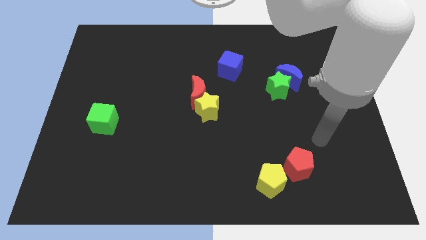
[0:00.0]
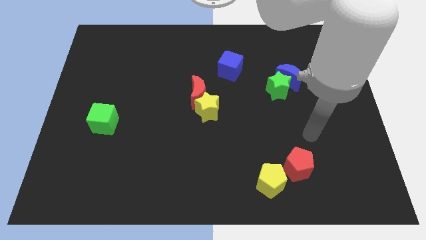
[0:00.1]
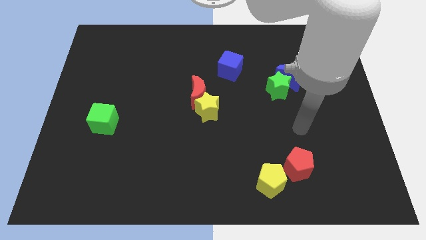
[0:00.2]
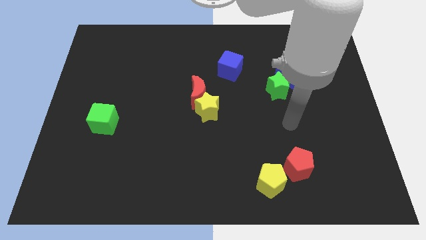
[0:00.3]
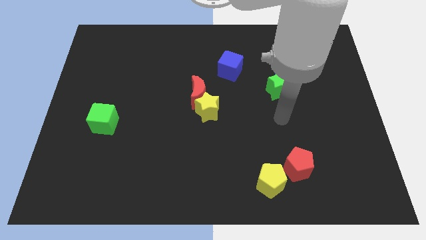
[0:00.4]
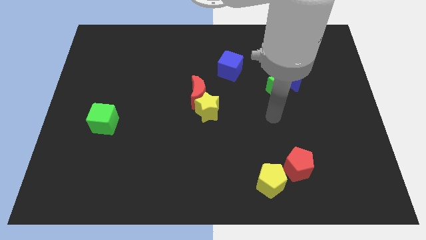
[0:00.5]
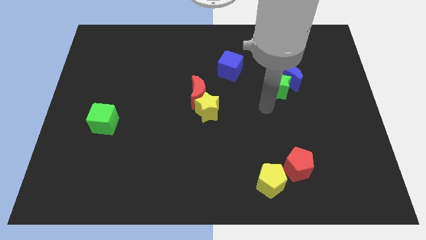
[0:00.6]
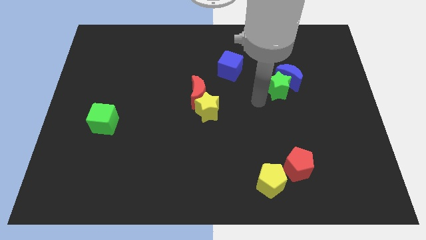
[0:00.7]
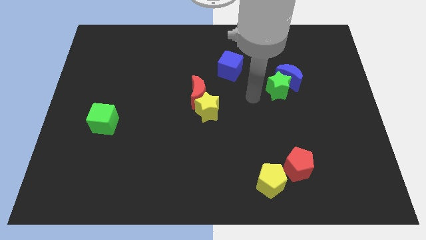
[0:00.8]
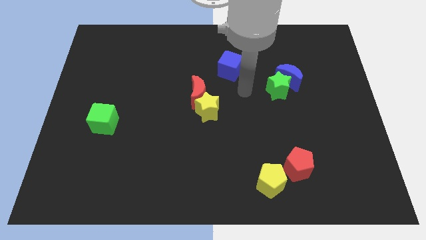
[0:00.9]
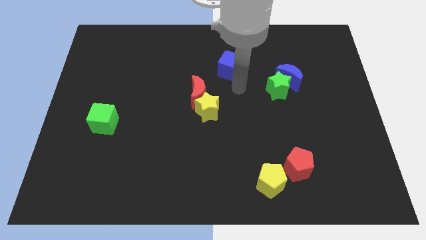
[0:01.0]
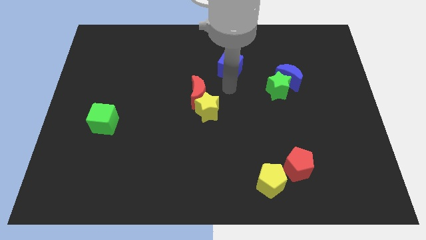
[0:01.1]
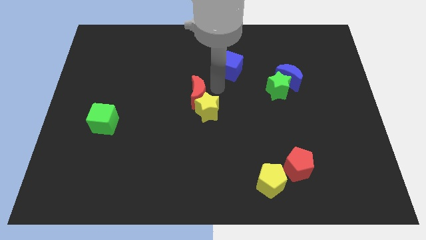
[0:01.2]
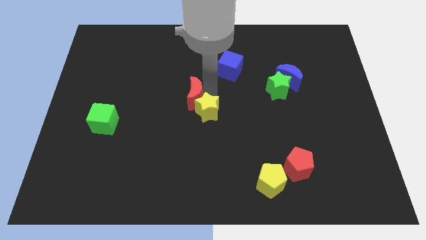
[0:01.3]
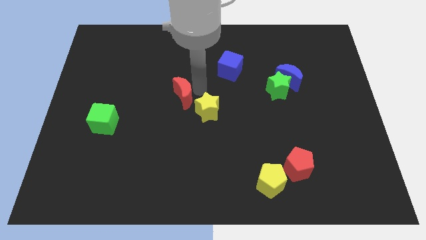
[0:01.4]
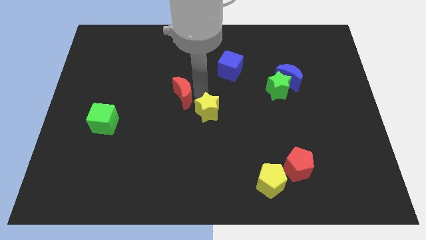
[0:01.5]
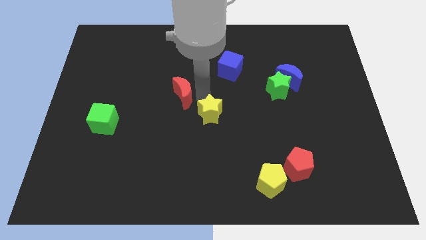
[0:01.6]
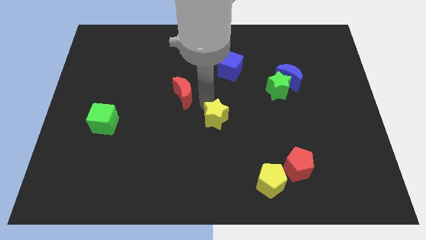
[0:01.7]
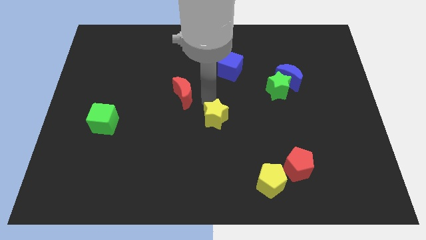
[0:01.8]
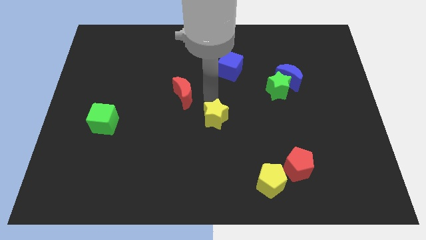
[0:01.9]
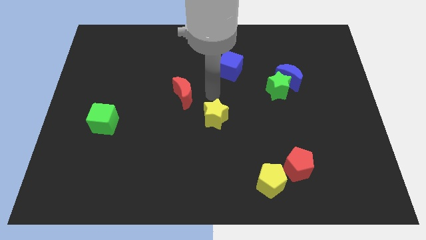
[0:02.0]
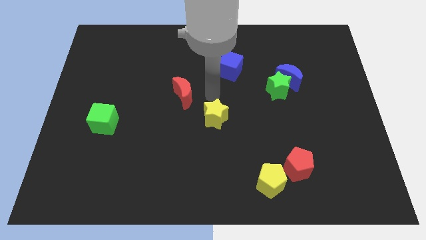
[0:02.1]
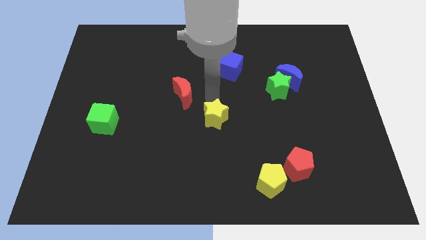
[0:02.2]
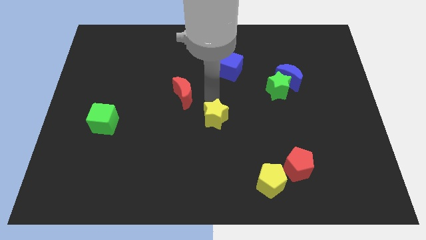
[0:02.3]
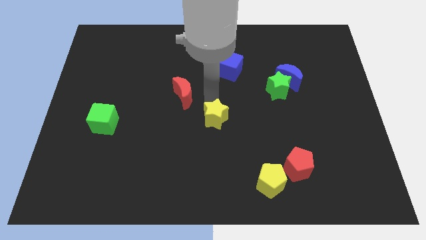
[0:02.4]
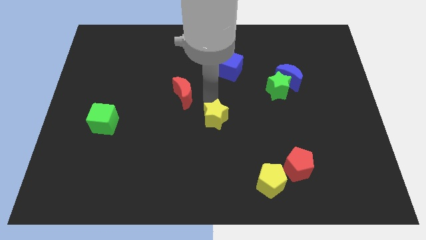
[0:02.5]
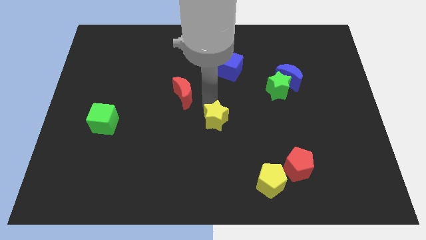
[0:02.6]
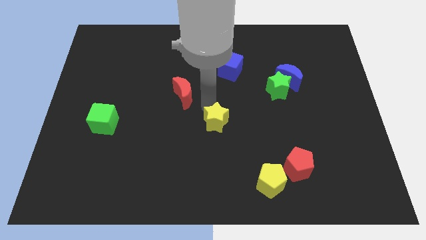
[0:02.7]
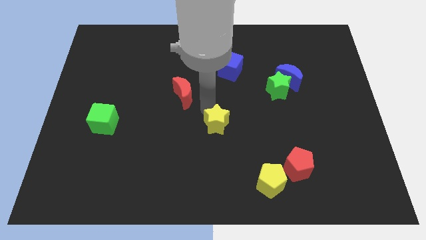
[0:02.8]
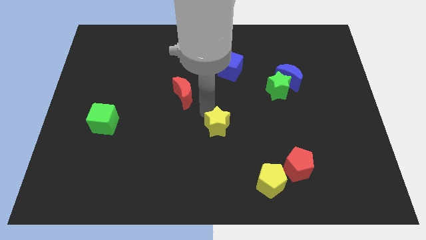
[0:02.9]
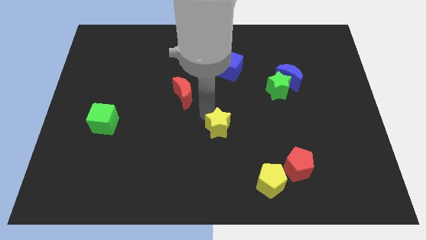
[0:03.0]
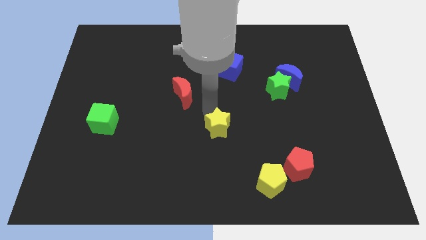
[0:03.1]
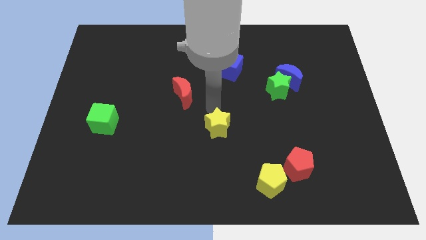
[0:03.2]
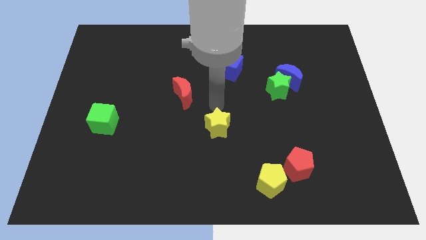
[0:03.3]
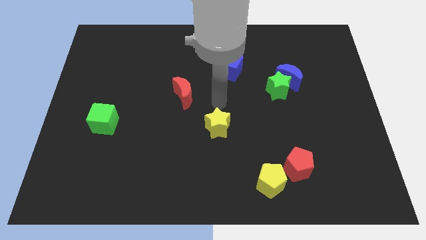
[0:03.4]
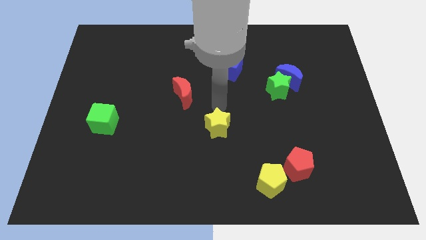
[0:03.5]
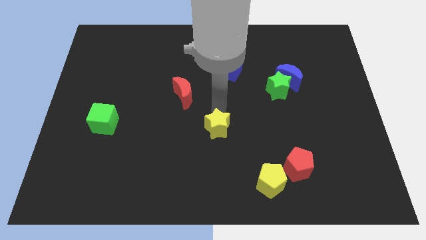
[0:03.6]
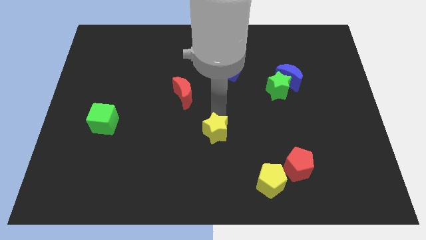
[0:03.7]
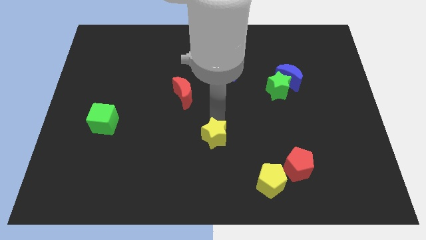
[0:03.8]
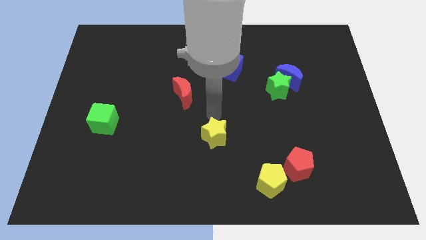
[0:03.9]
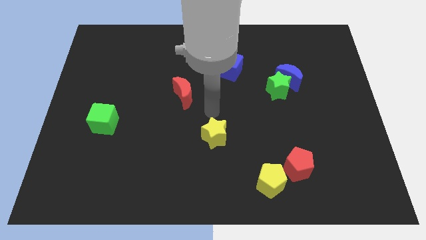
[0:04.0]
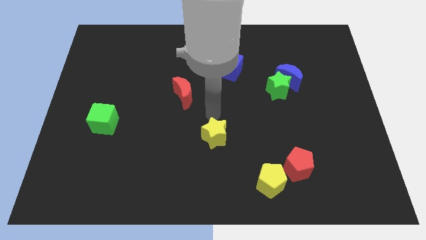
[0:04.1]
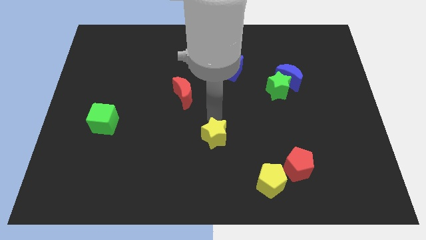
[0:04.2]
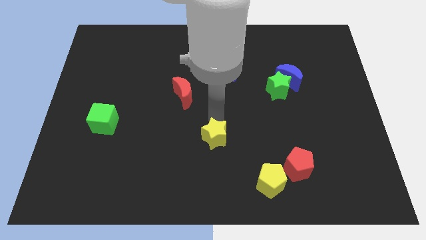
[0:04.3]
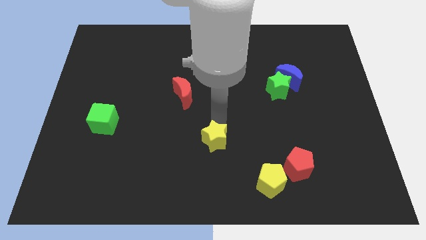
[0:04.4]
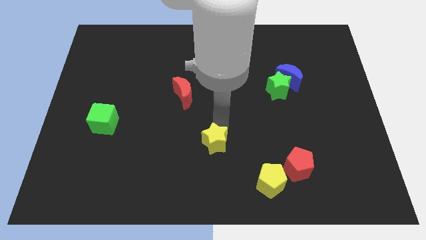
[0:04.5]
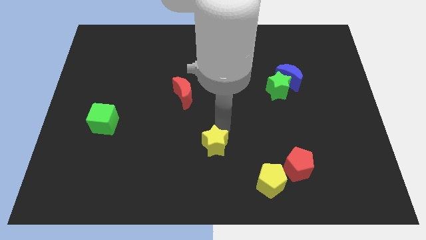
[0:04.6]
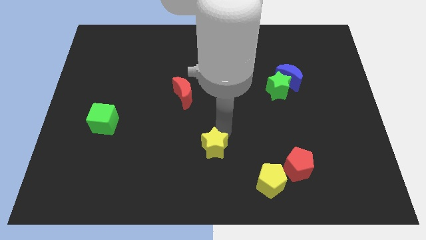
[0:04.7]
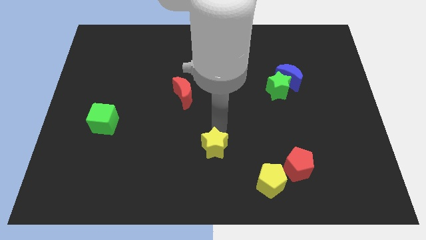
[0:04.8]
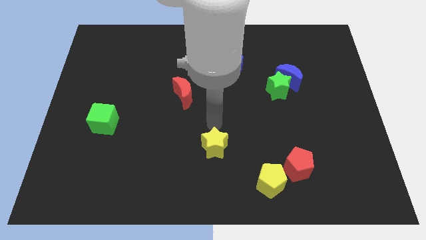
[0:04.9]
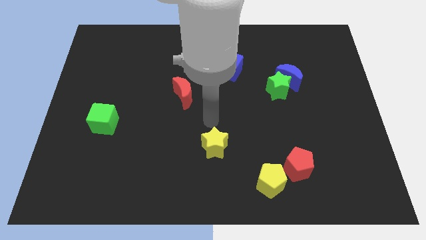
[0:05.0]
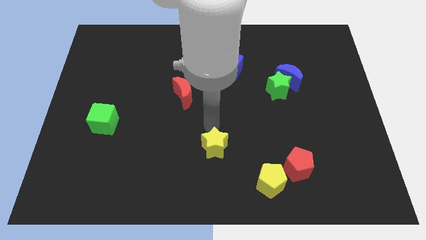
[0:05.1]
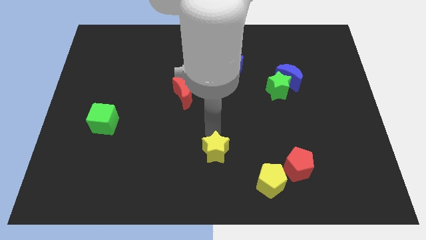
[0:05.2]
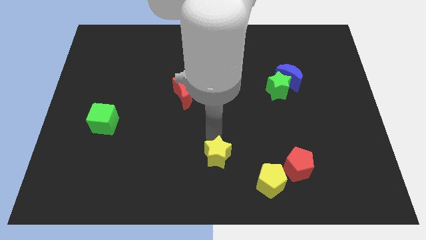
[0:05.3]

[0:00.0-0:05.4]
put the yellow star to the bottom side
